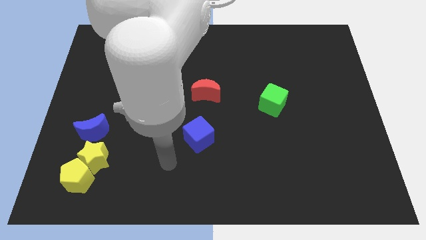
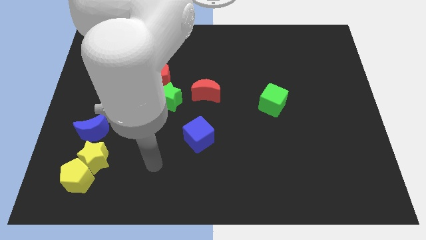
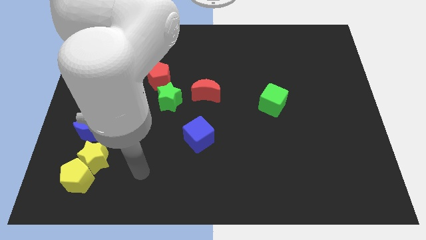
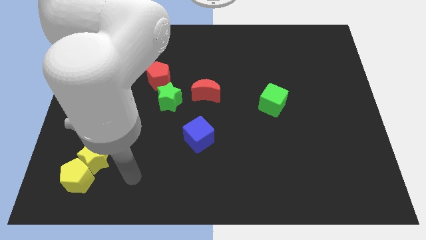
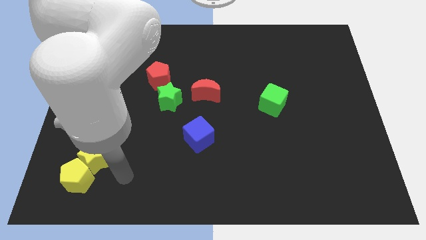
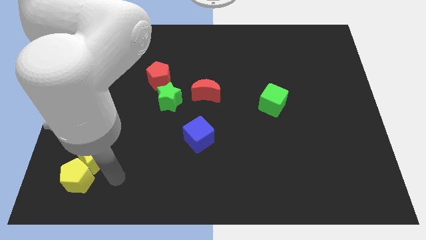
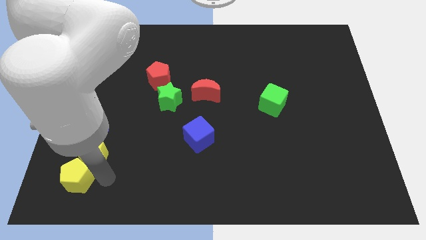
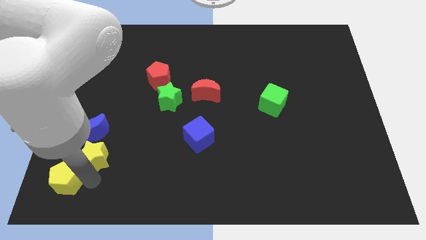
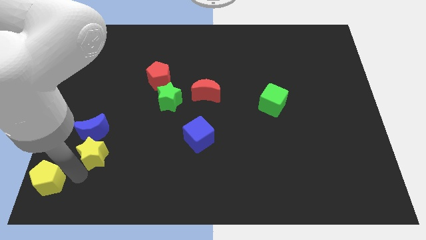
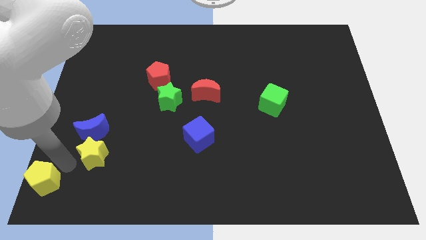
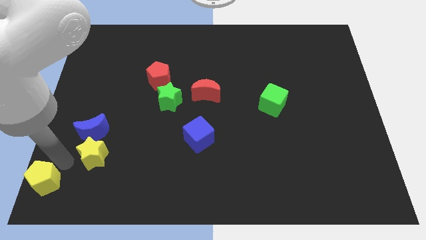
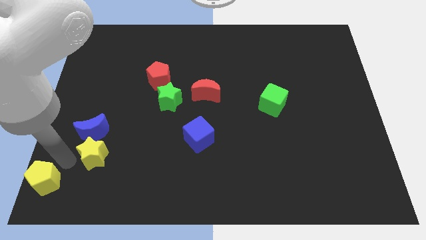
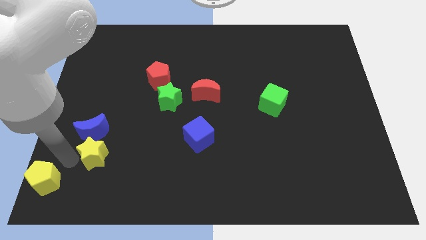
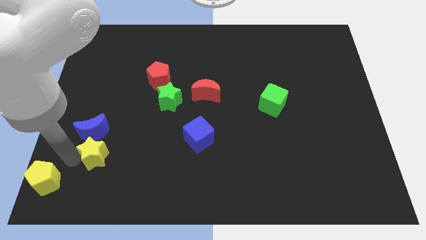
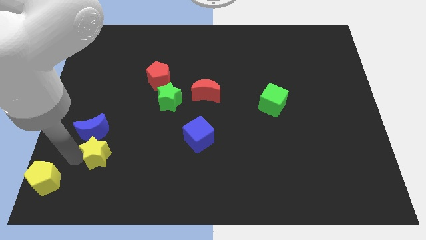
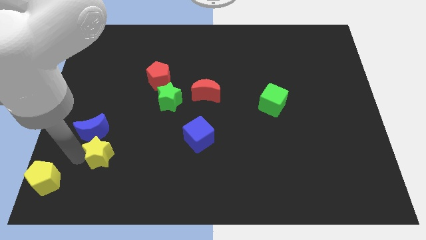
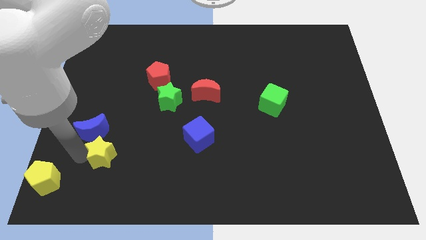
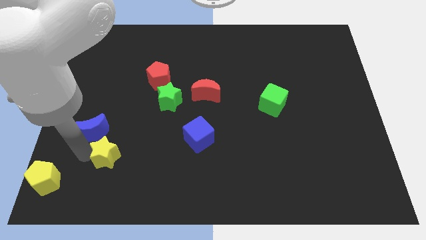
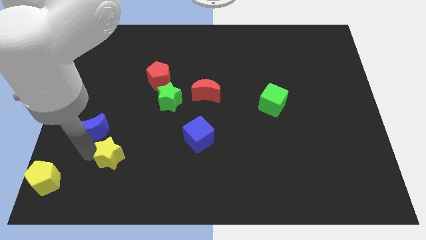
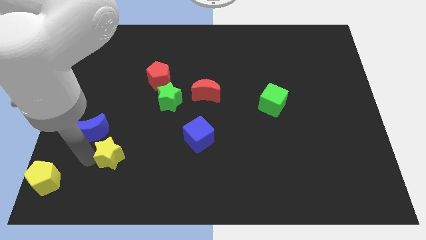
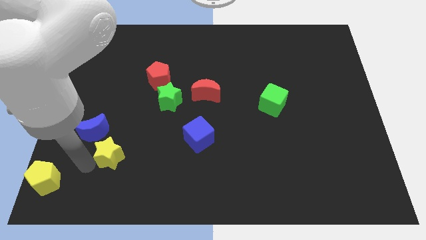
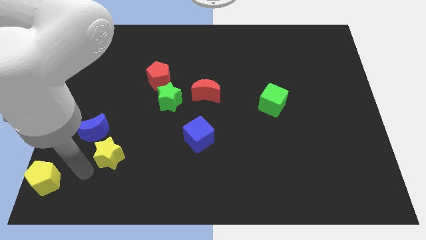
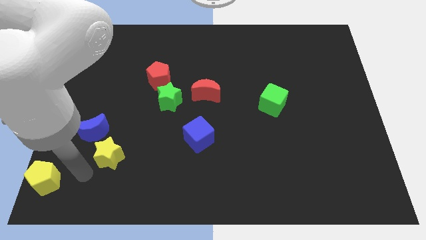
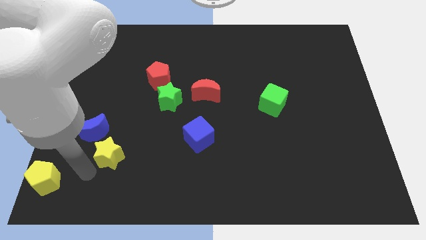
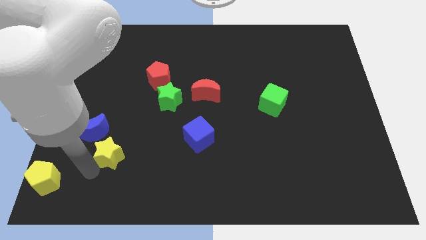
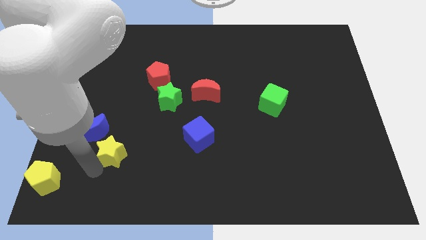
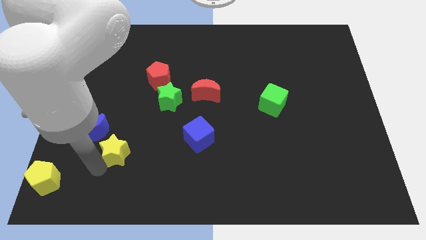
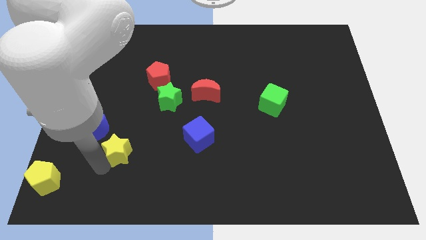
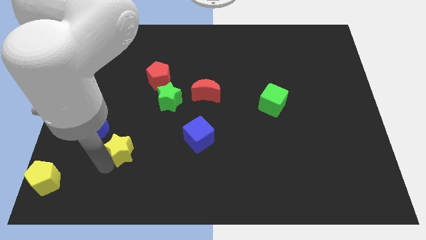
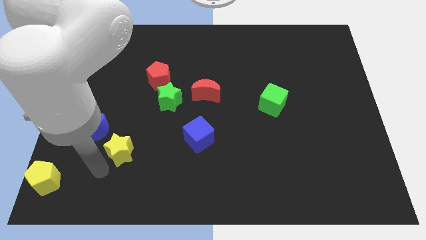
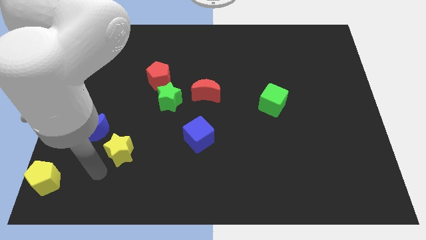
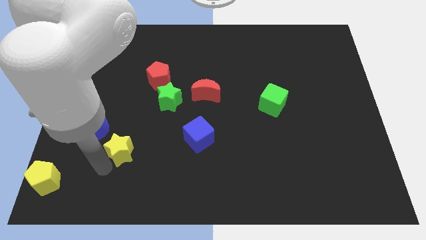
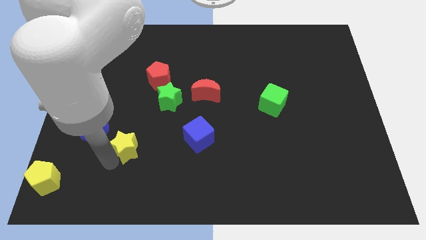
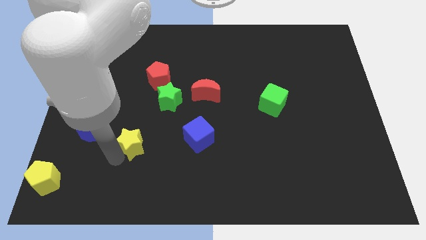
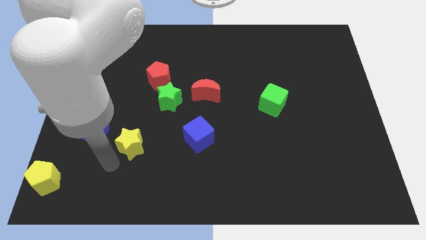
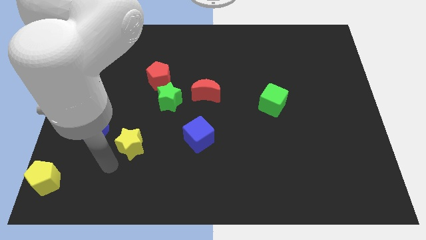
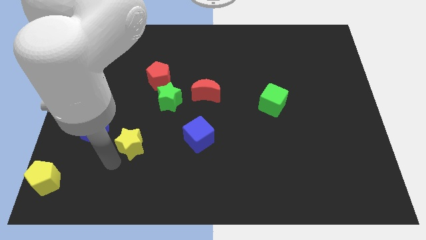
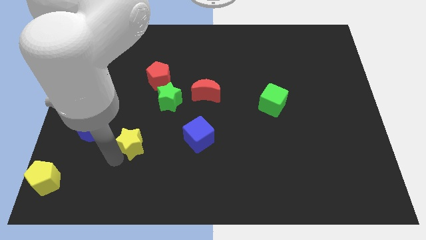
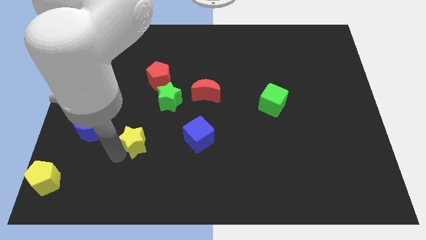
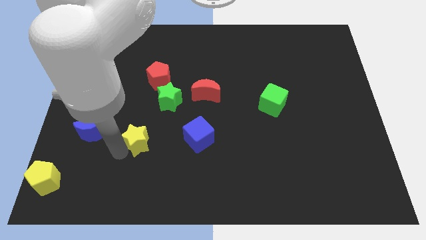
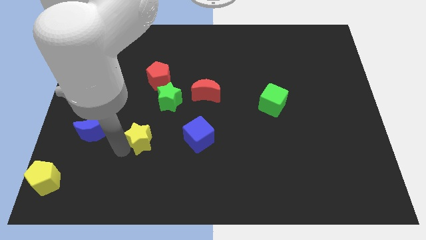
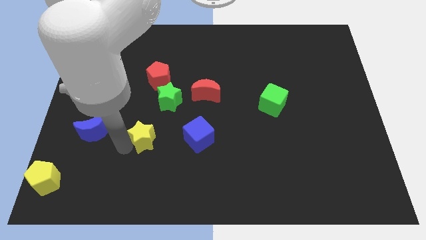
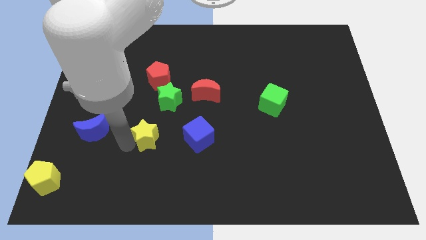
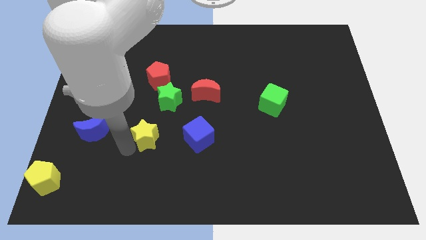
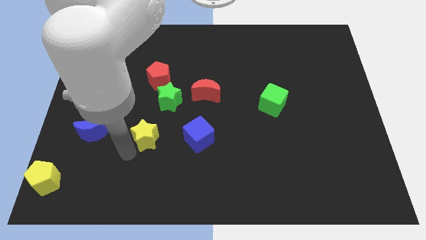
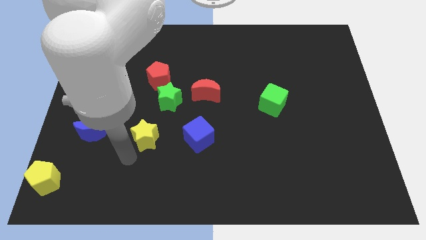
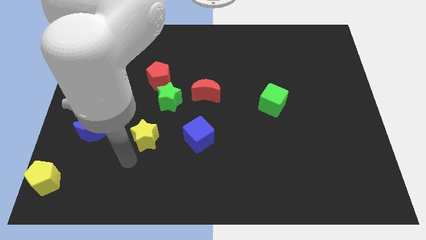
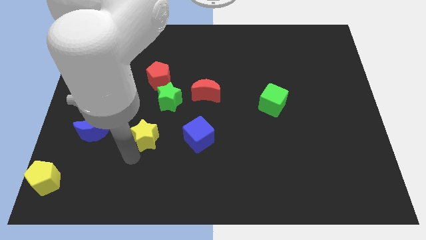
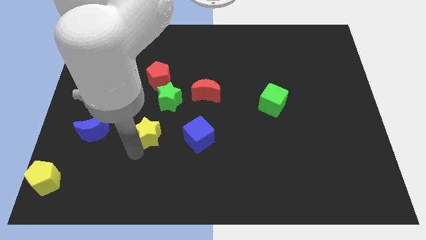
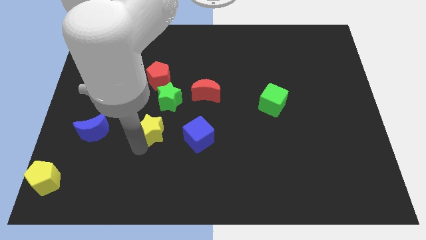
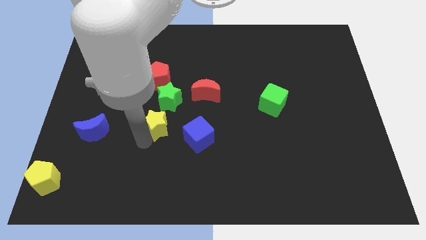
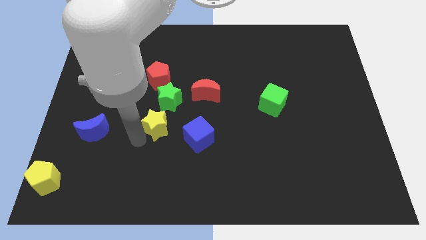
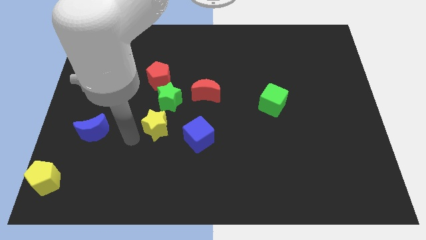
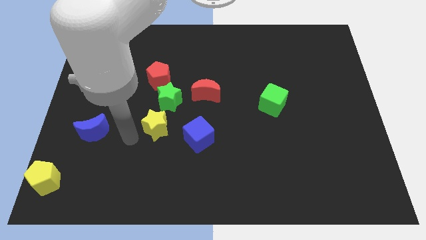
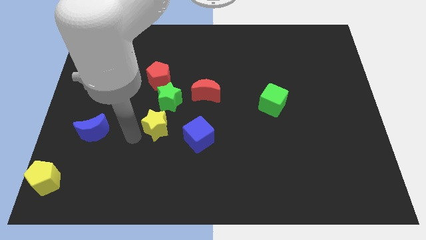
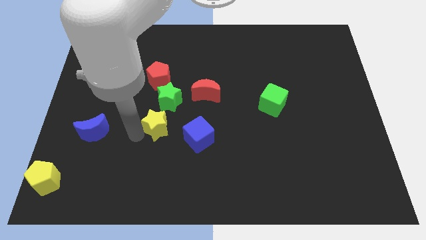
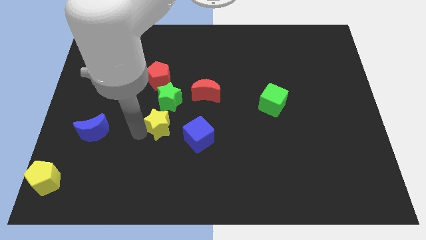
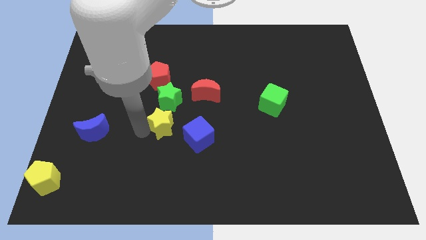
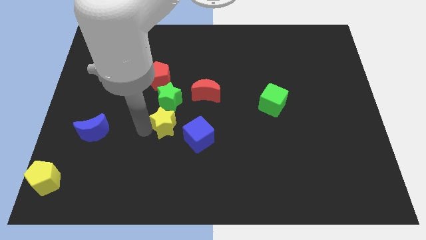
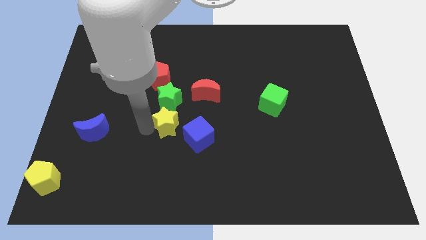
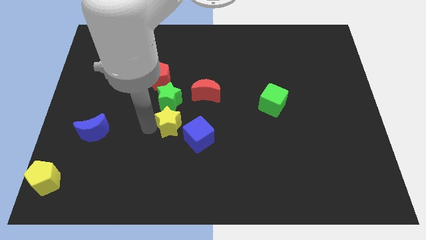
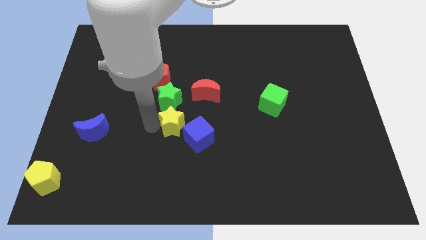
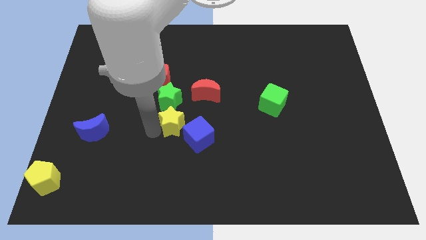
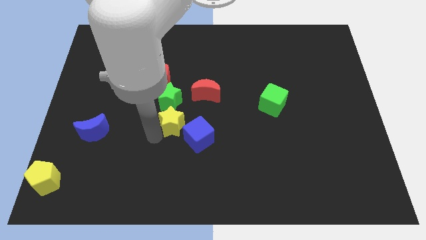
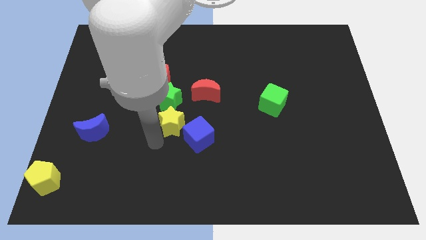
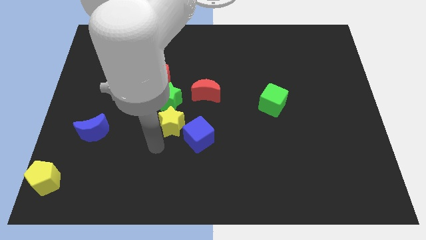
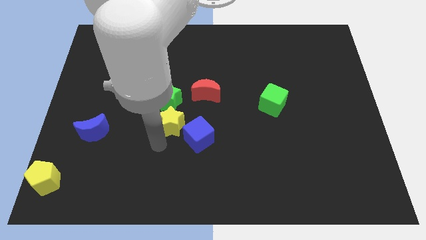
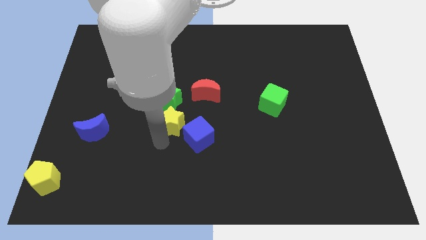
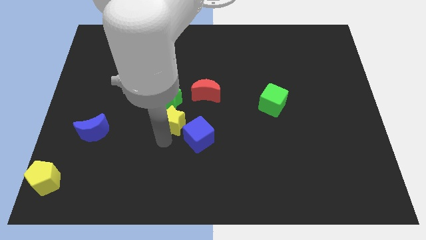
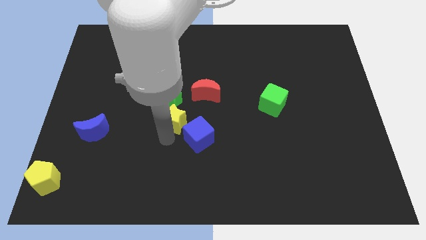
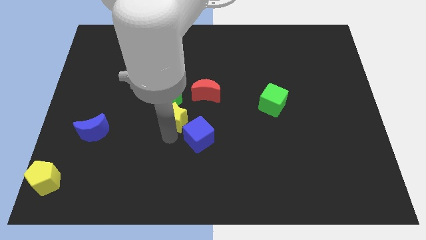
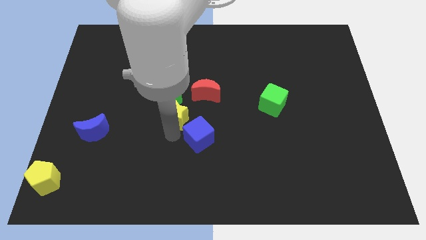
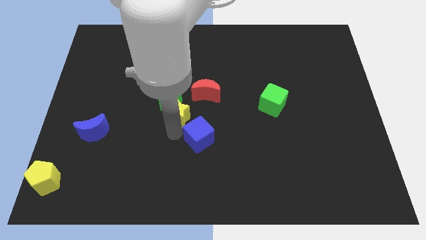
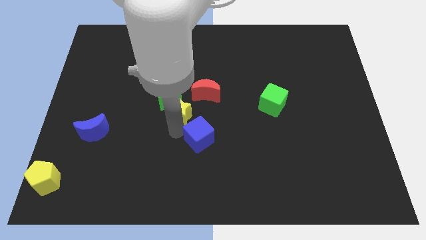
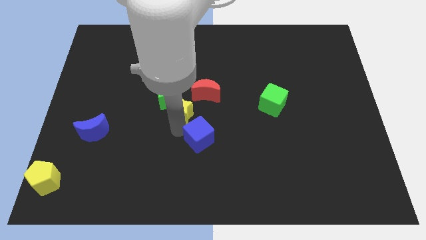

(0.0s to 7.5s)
push the yellow star up and then to the right

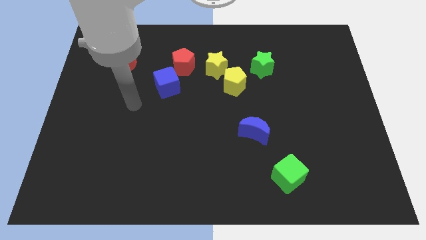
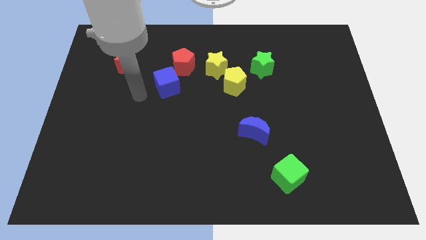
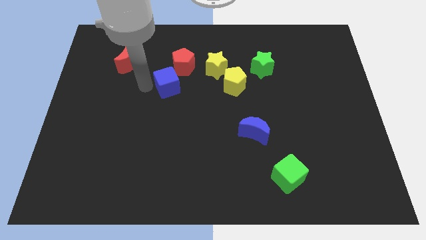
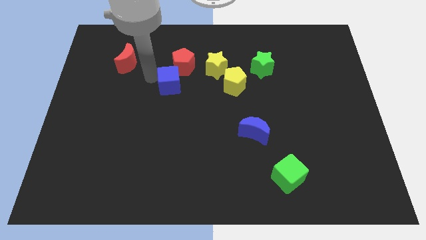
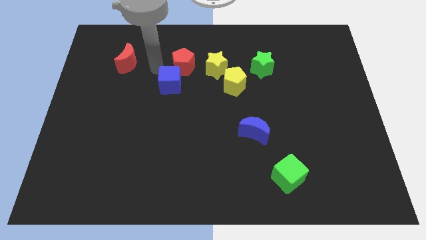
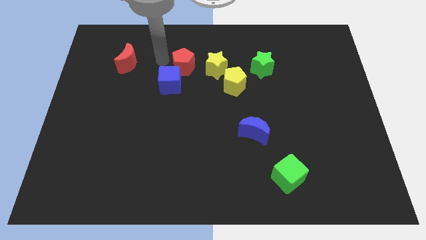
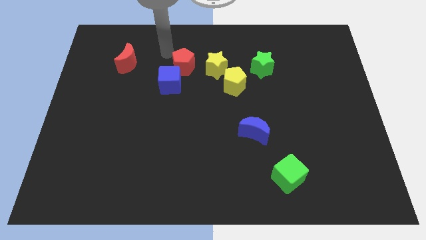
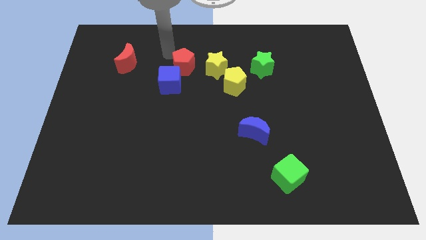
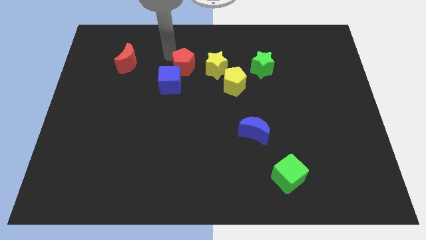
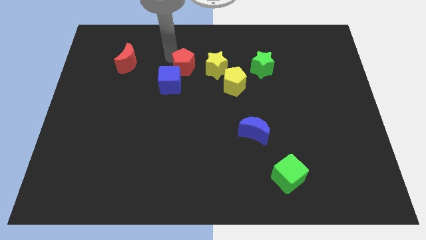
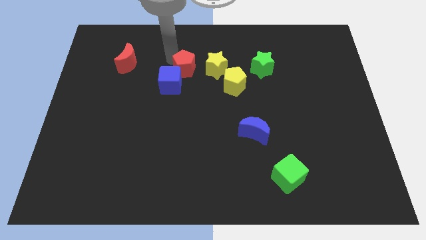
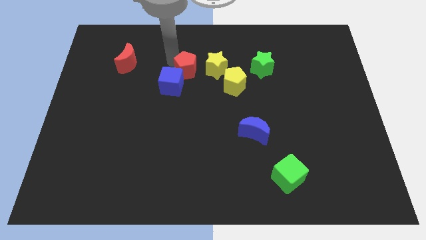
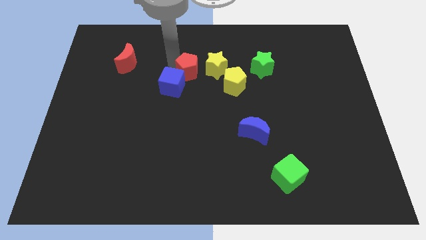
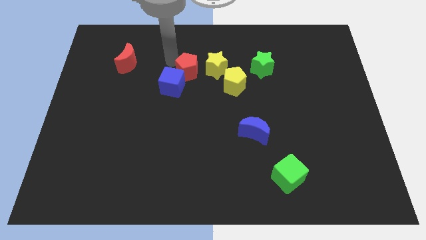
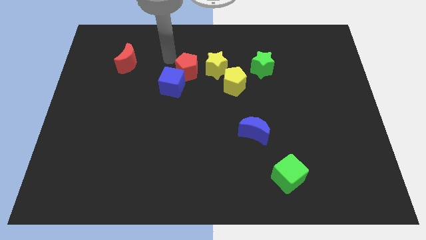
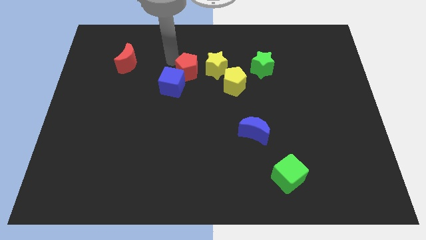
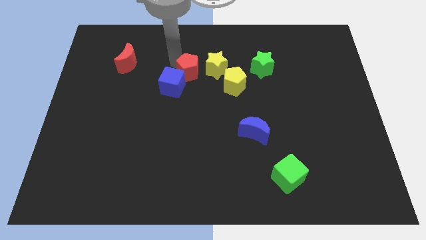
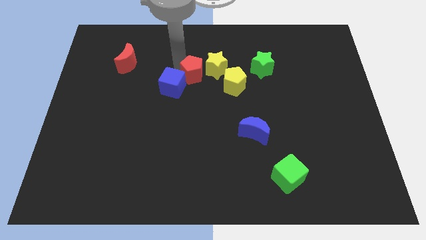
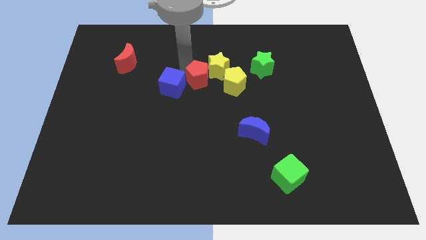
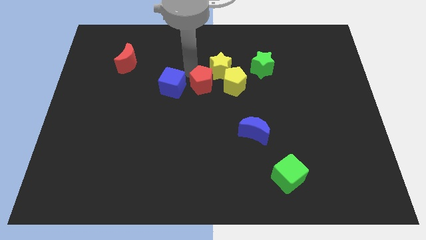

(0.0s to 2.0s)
slightly move the red pentagon down and then right
